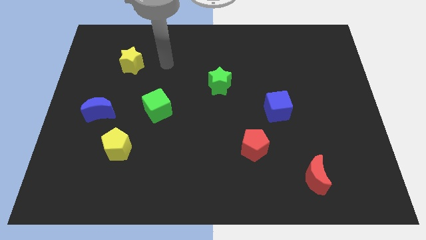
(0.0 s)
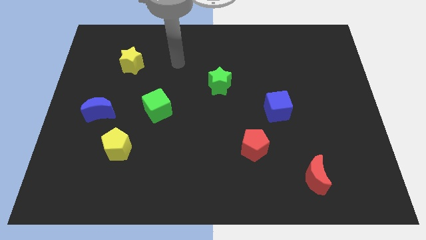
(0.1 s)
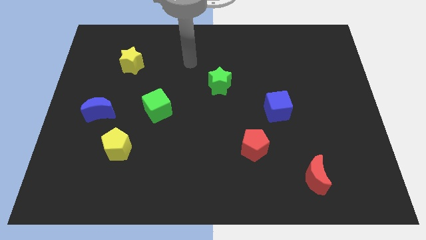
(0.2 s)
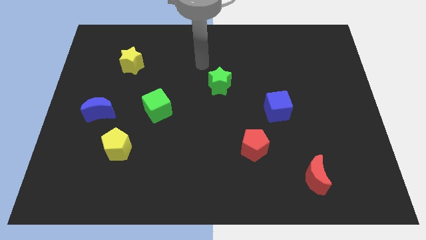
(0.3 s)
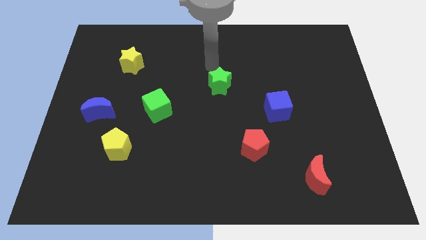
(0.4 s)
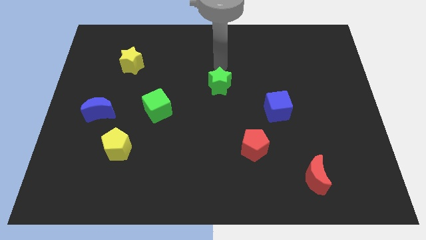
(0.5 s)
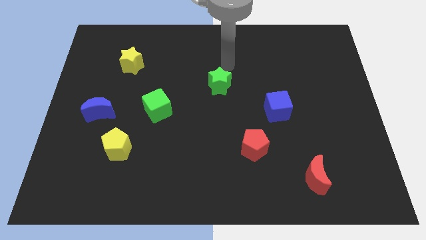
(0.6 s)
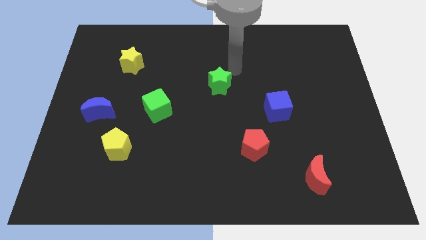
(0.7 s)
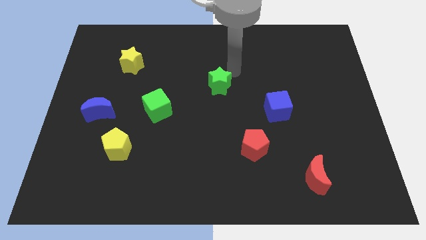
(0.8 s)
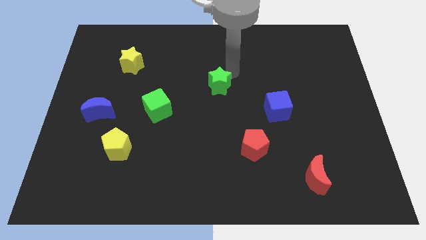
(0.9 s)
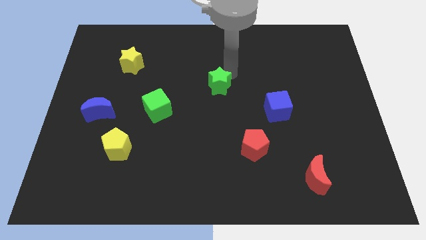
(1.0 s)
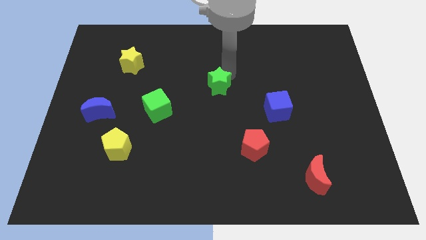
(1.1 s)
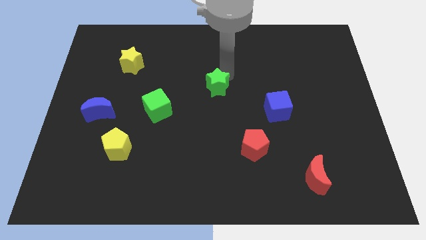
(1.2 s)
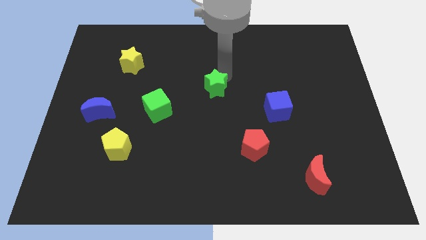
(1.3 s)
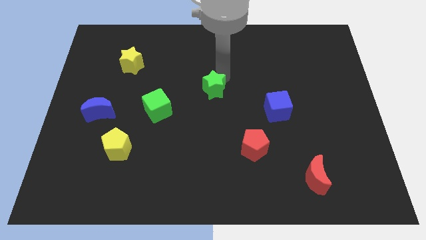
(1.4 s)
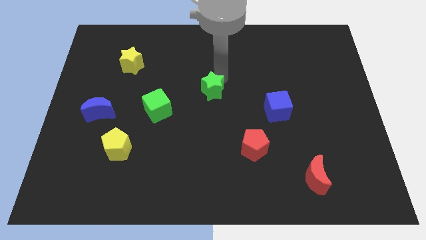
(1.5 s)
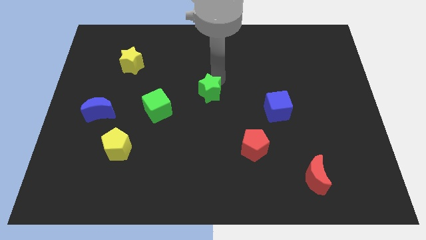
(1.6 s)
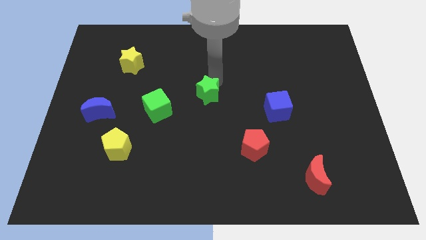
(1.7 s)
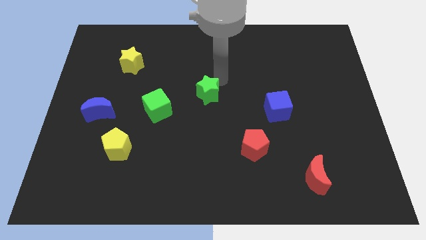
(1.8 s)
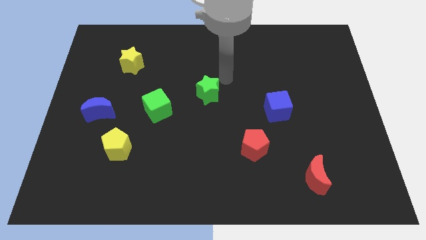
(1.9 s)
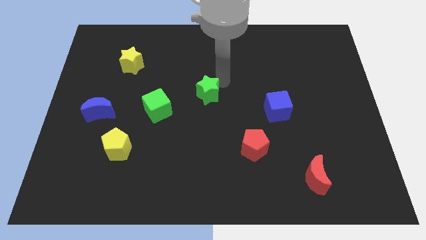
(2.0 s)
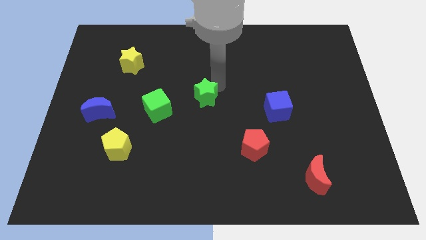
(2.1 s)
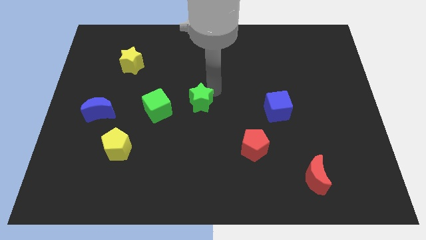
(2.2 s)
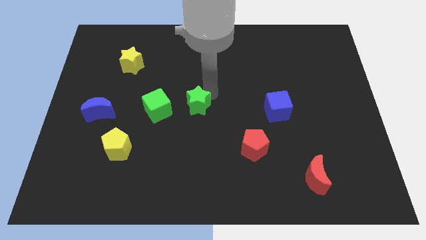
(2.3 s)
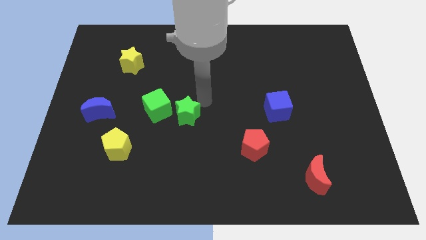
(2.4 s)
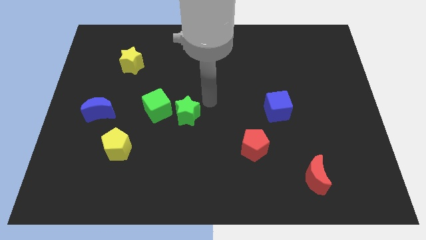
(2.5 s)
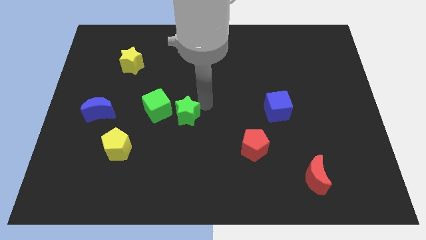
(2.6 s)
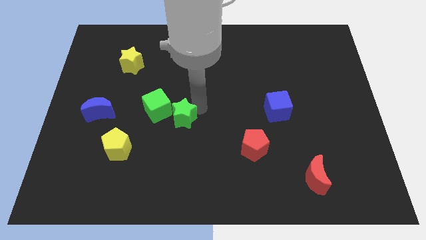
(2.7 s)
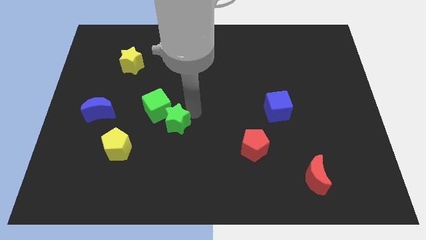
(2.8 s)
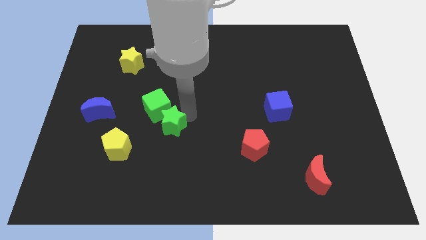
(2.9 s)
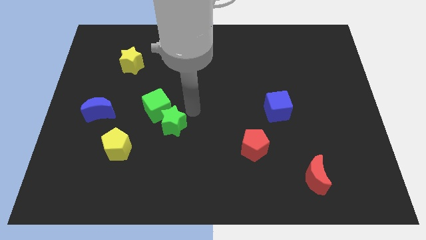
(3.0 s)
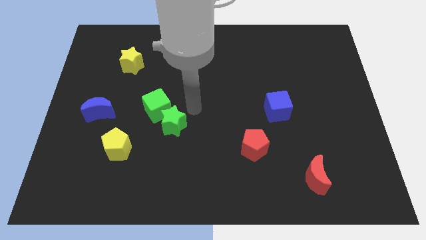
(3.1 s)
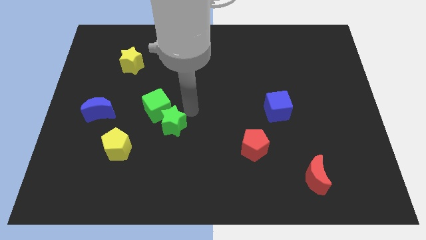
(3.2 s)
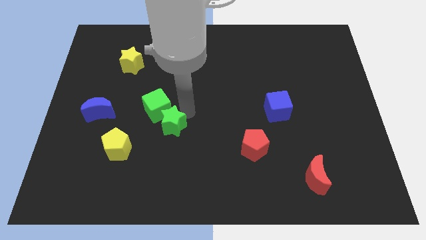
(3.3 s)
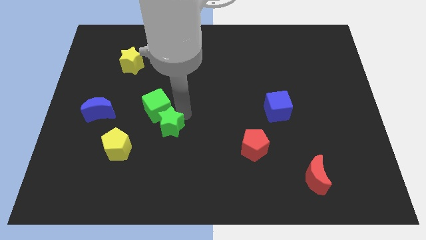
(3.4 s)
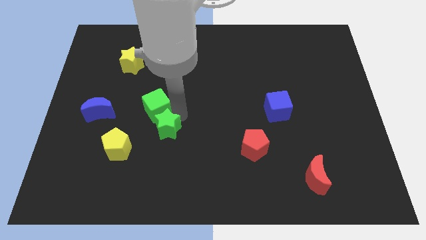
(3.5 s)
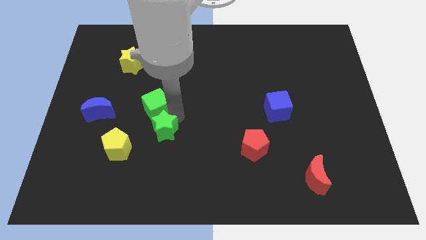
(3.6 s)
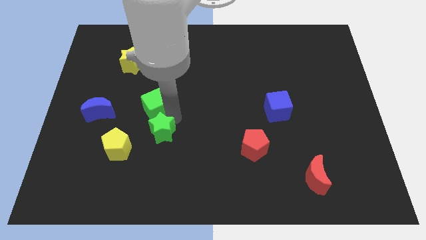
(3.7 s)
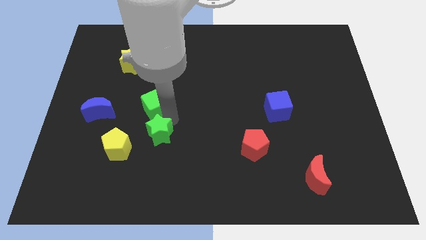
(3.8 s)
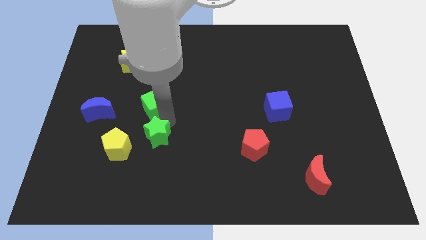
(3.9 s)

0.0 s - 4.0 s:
push the green star diagonally downwards and left

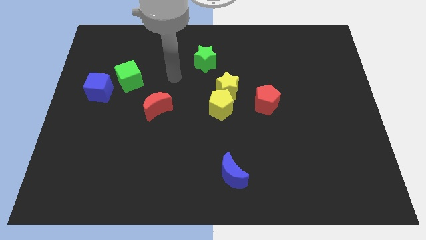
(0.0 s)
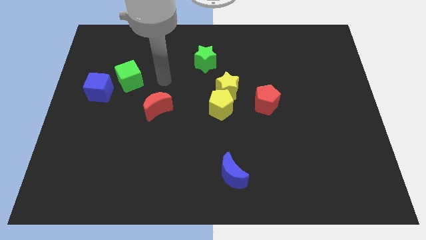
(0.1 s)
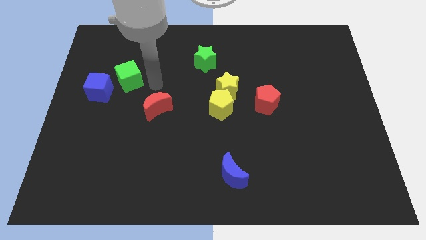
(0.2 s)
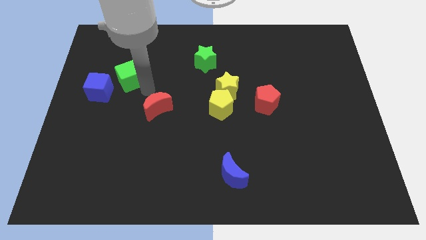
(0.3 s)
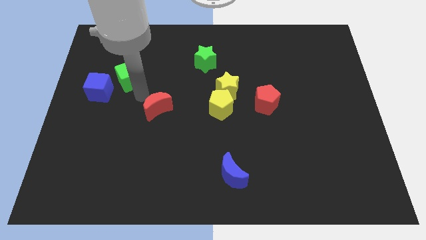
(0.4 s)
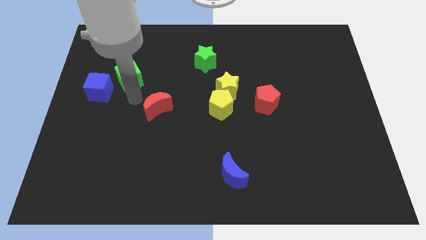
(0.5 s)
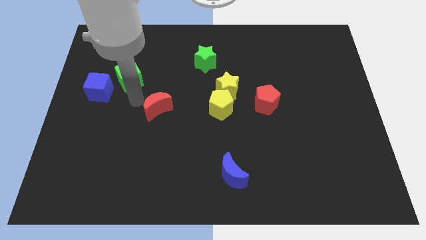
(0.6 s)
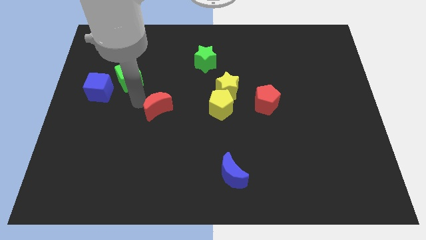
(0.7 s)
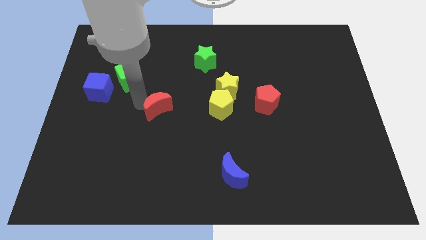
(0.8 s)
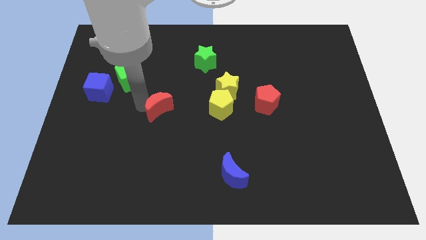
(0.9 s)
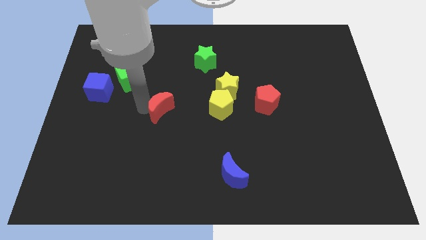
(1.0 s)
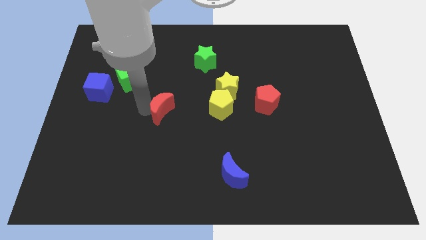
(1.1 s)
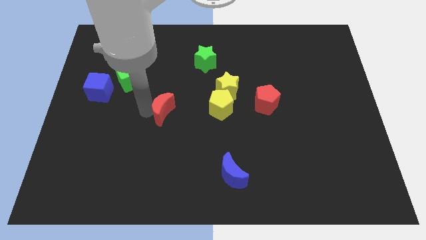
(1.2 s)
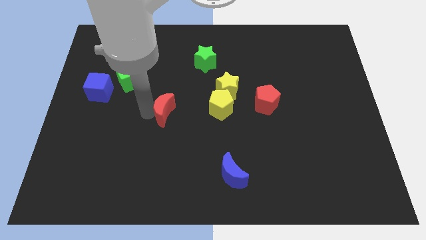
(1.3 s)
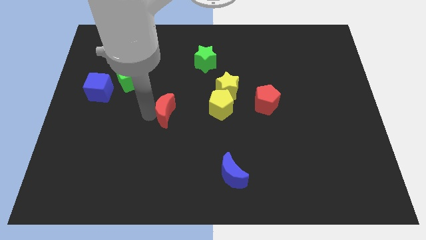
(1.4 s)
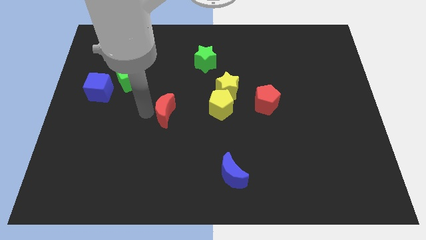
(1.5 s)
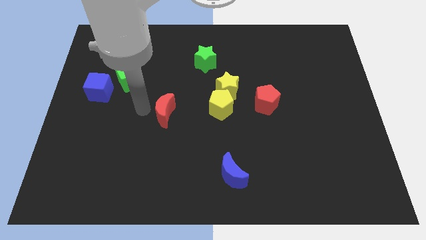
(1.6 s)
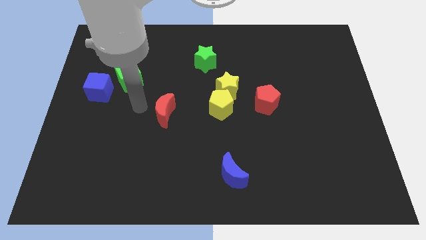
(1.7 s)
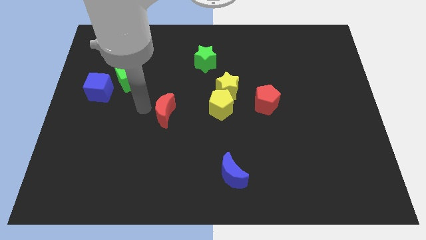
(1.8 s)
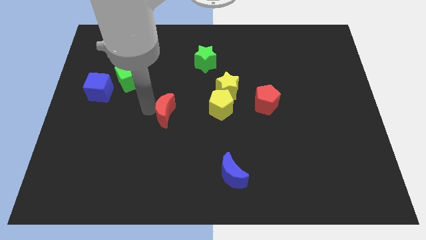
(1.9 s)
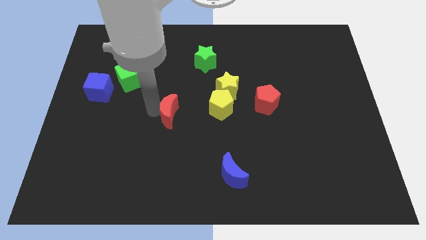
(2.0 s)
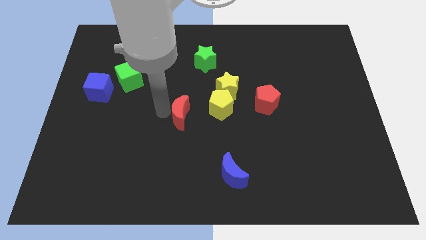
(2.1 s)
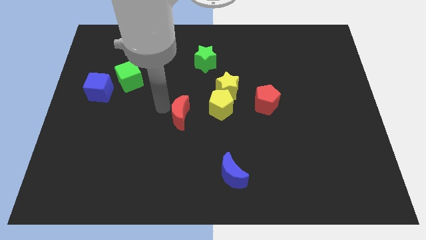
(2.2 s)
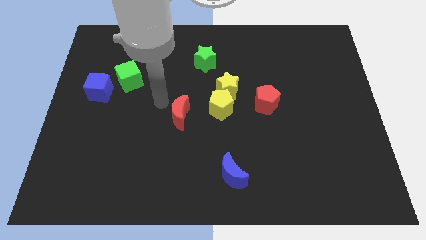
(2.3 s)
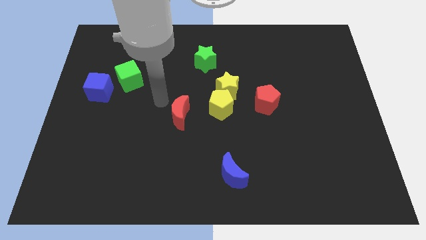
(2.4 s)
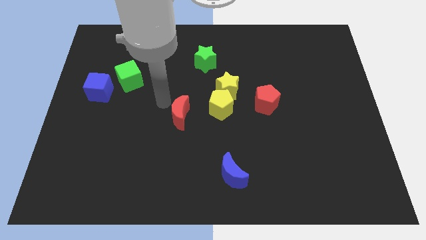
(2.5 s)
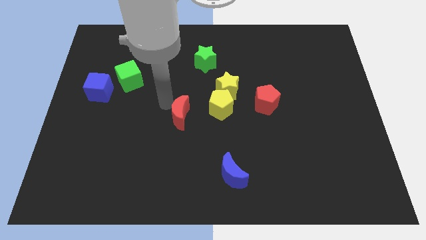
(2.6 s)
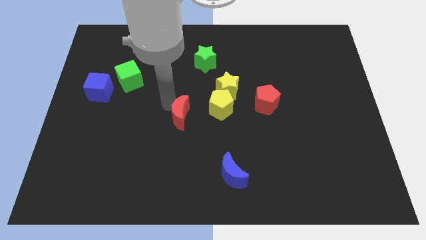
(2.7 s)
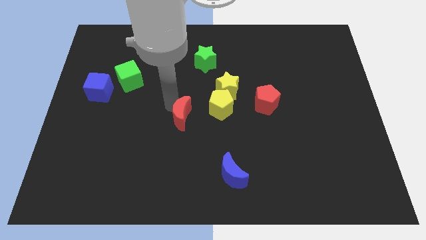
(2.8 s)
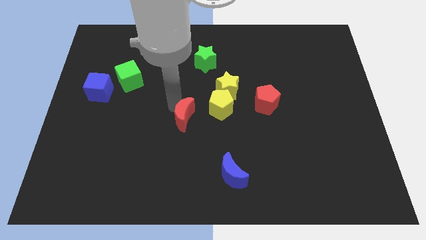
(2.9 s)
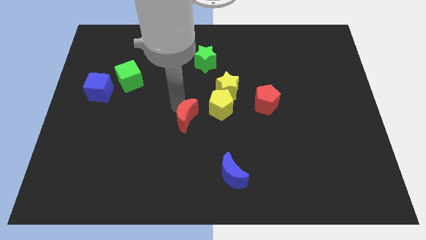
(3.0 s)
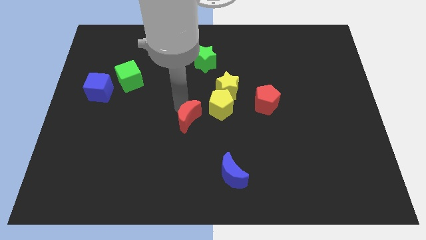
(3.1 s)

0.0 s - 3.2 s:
move the red moon a bit downwards and to the right diagonally

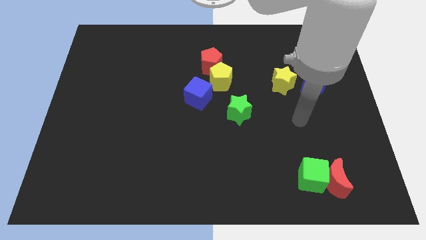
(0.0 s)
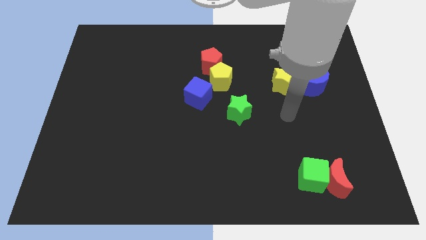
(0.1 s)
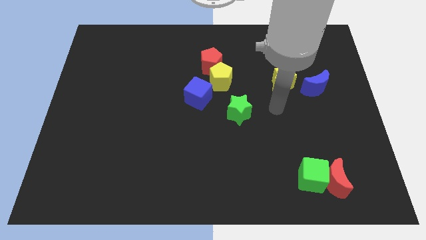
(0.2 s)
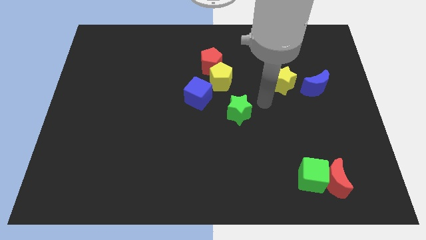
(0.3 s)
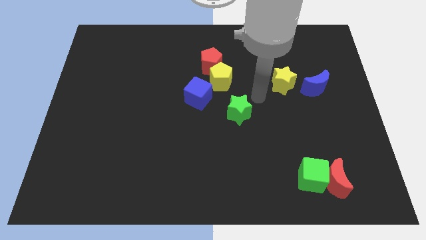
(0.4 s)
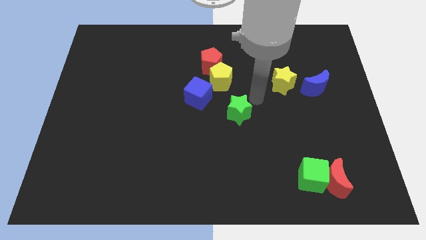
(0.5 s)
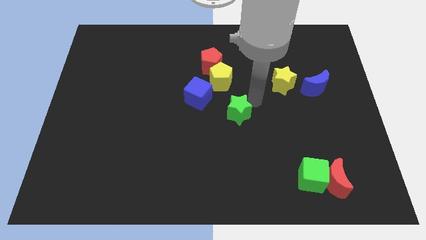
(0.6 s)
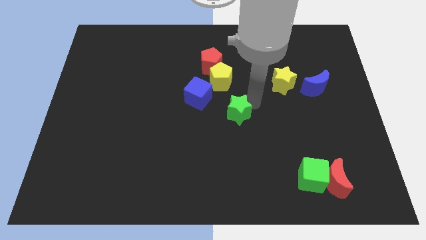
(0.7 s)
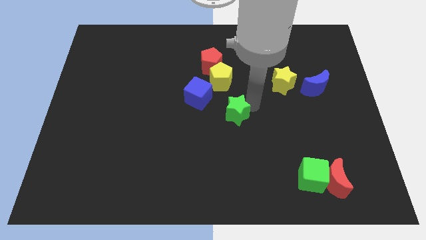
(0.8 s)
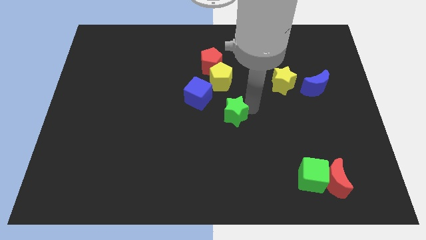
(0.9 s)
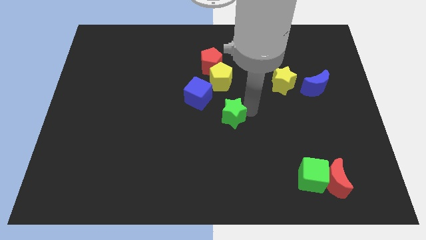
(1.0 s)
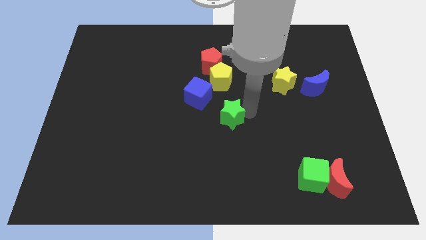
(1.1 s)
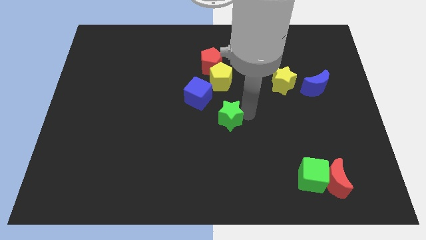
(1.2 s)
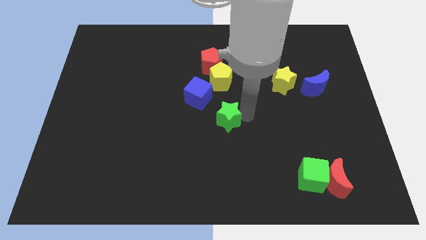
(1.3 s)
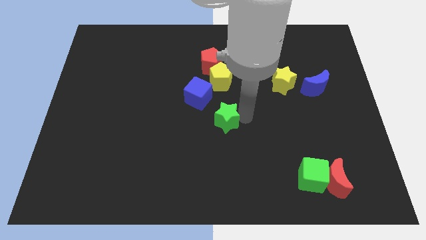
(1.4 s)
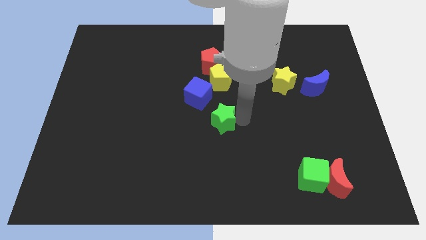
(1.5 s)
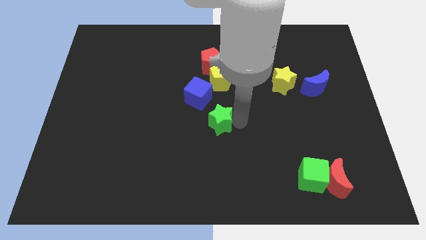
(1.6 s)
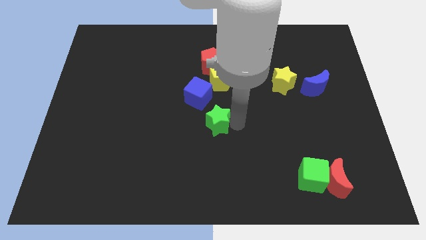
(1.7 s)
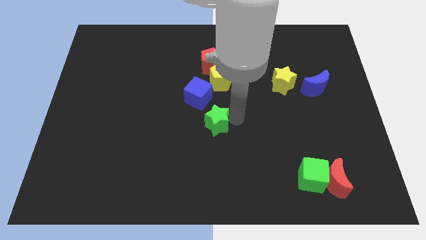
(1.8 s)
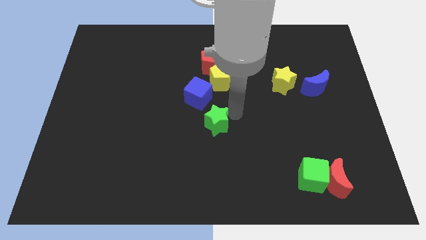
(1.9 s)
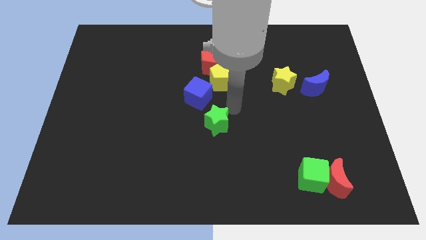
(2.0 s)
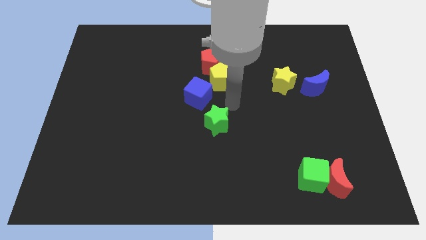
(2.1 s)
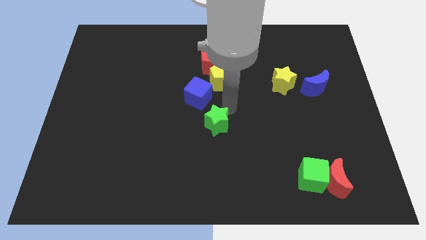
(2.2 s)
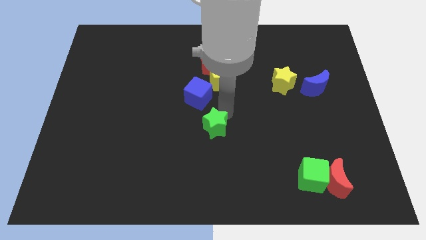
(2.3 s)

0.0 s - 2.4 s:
slightly move the green star diagonally down and to the left
